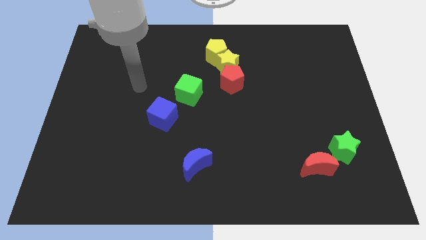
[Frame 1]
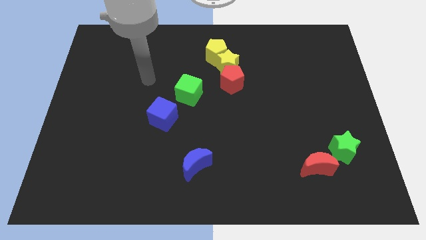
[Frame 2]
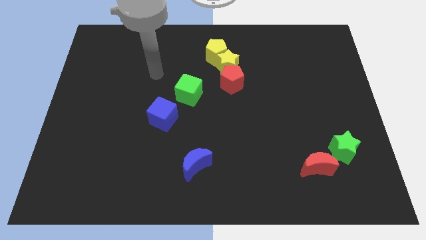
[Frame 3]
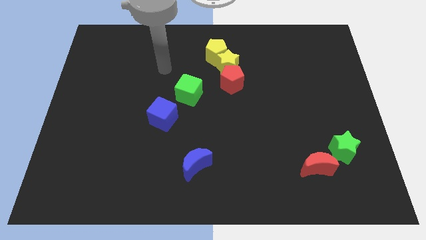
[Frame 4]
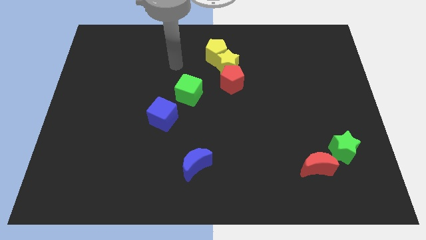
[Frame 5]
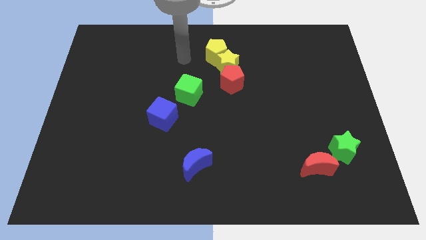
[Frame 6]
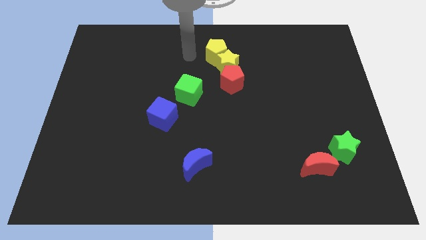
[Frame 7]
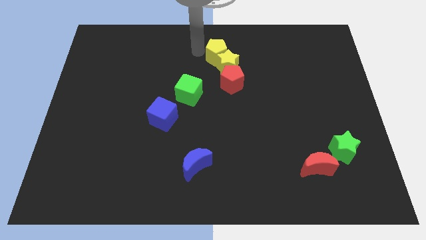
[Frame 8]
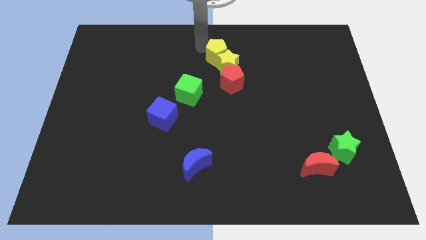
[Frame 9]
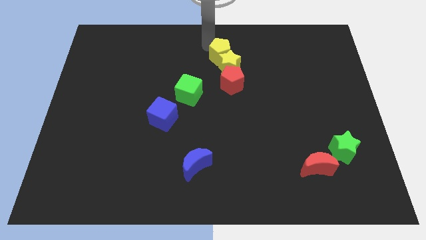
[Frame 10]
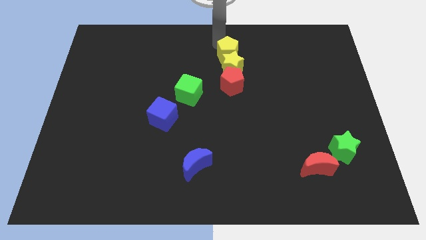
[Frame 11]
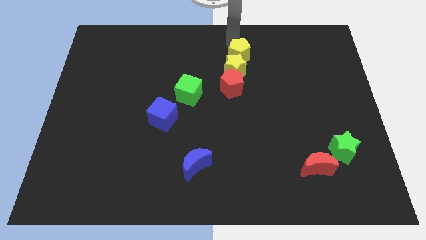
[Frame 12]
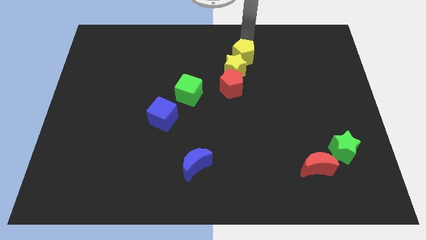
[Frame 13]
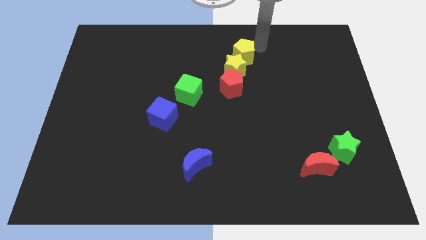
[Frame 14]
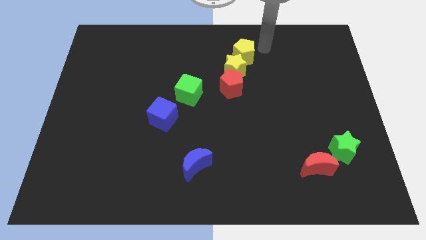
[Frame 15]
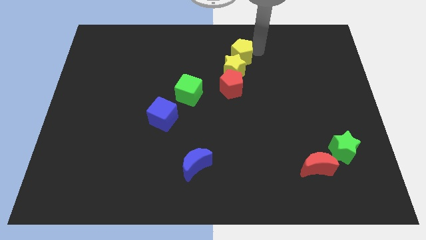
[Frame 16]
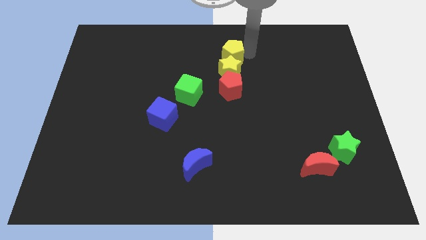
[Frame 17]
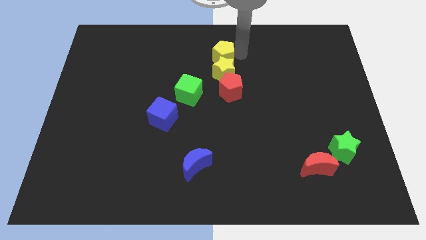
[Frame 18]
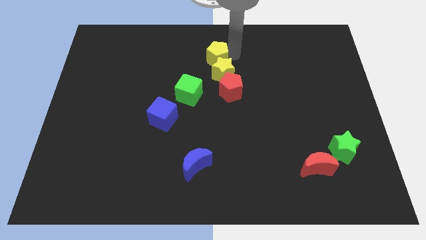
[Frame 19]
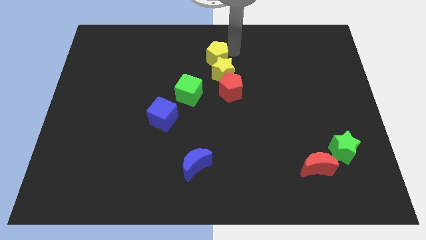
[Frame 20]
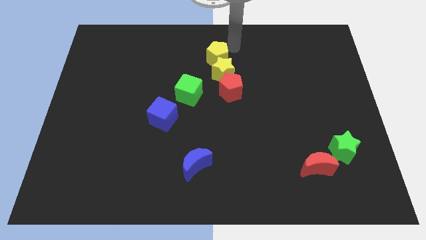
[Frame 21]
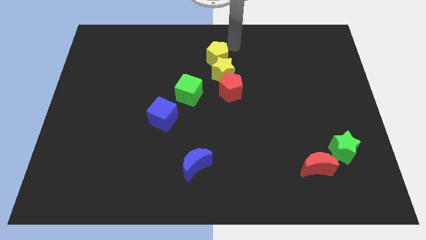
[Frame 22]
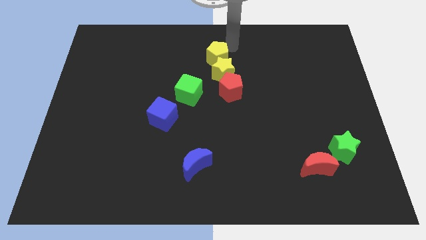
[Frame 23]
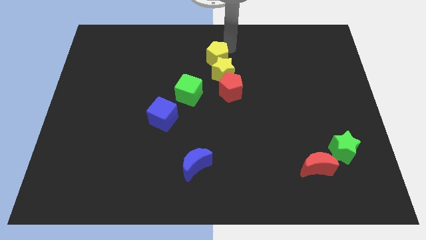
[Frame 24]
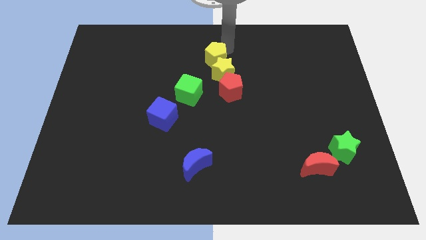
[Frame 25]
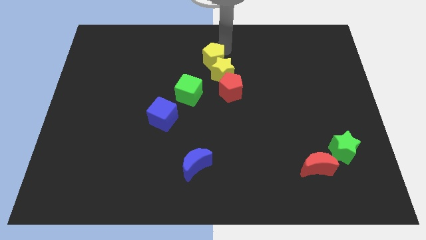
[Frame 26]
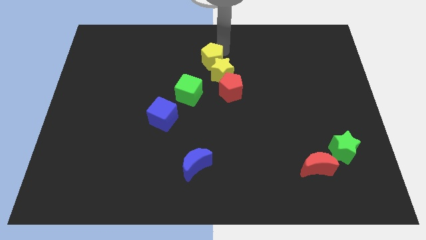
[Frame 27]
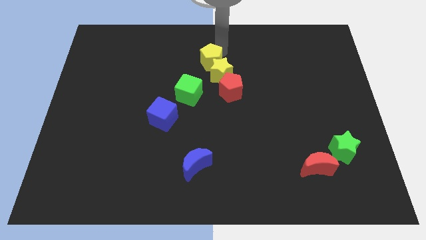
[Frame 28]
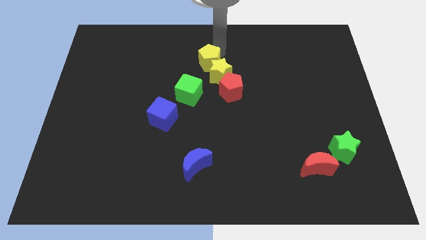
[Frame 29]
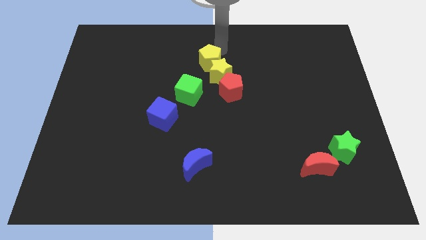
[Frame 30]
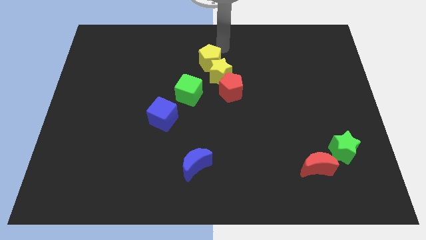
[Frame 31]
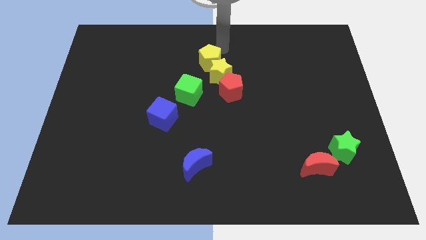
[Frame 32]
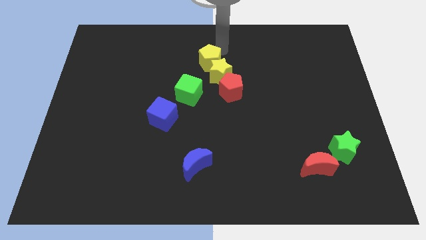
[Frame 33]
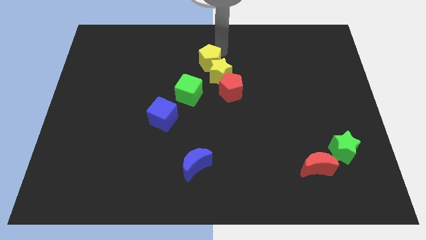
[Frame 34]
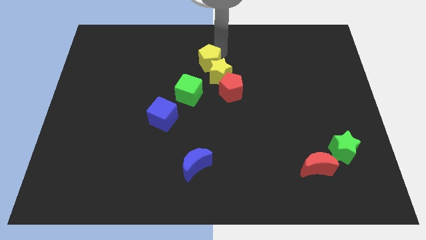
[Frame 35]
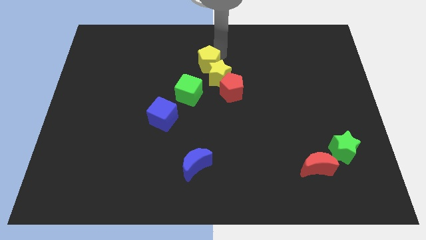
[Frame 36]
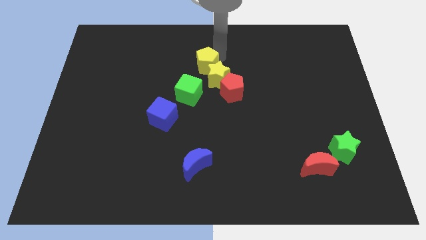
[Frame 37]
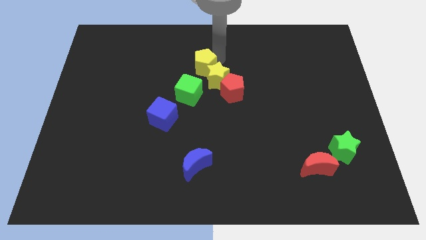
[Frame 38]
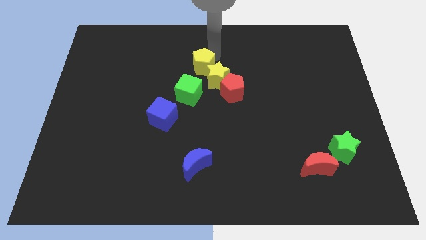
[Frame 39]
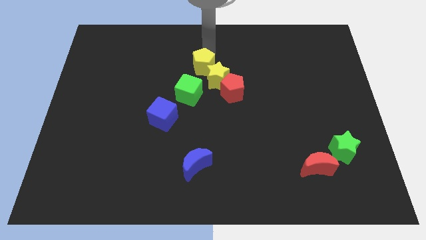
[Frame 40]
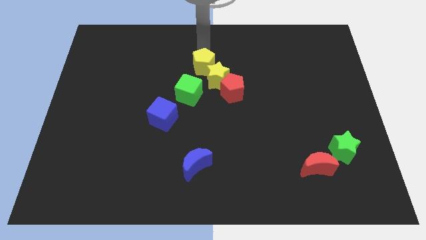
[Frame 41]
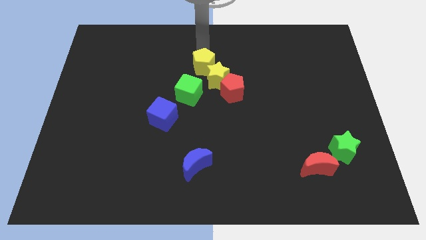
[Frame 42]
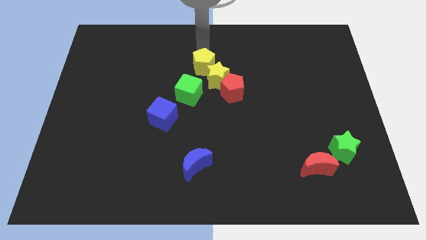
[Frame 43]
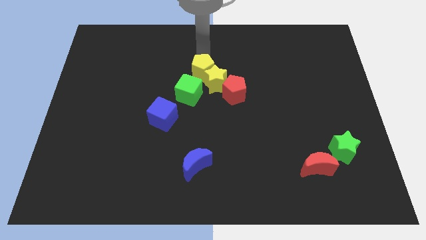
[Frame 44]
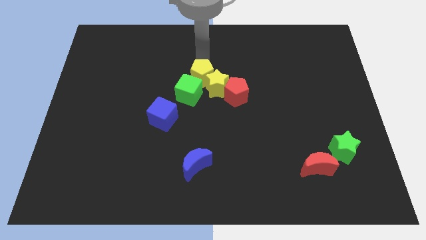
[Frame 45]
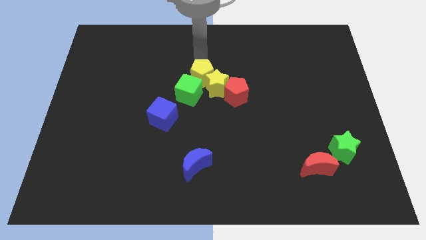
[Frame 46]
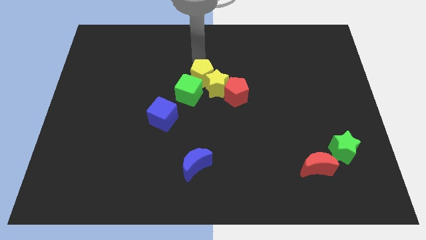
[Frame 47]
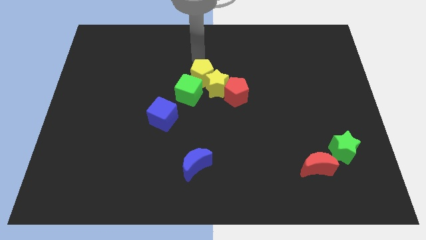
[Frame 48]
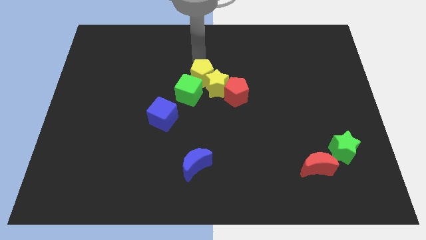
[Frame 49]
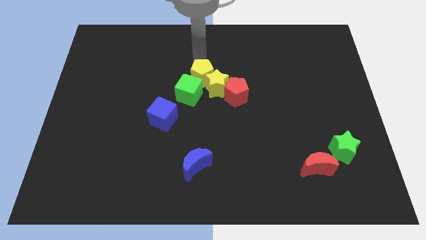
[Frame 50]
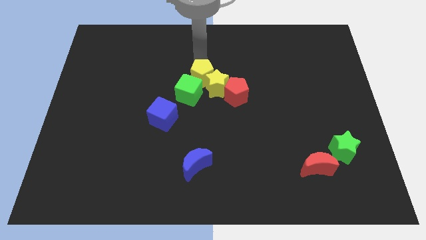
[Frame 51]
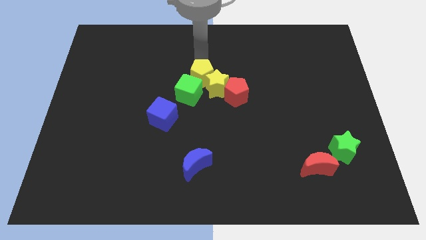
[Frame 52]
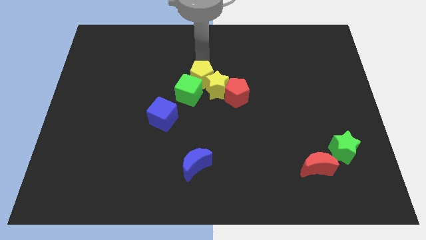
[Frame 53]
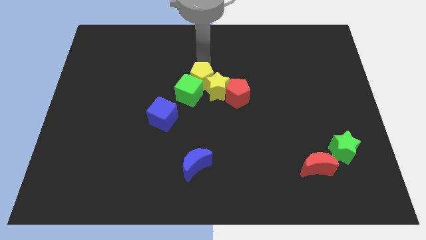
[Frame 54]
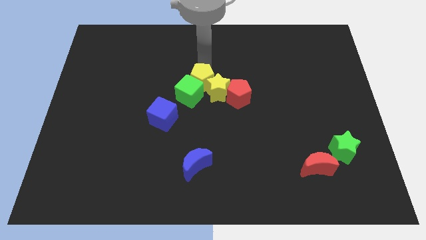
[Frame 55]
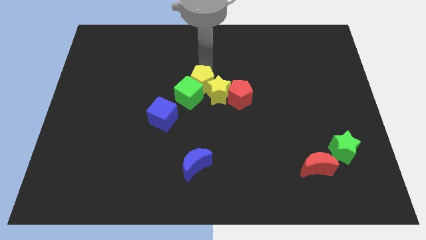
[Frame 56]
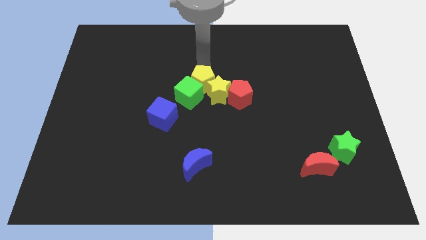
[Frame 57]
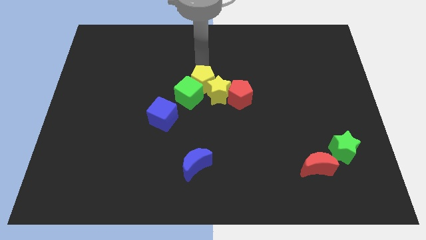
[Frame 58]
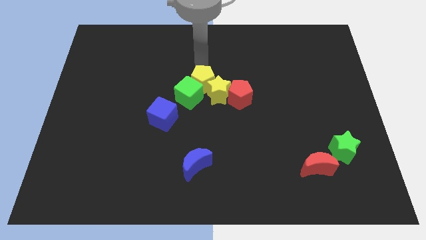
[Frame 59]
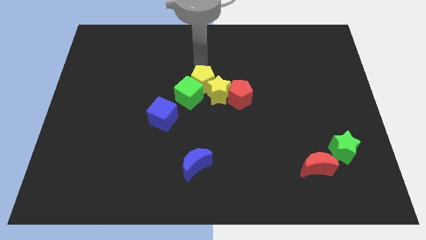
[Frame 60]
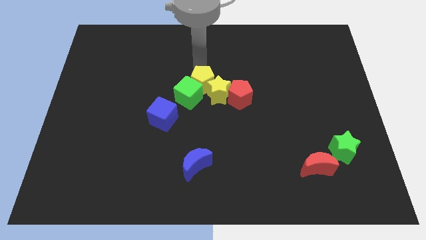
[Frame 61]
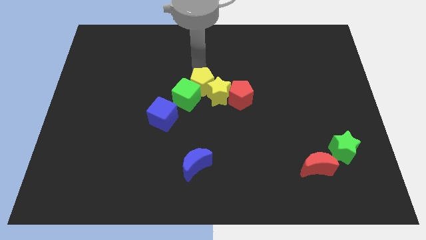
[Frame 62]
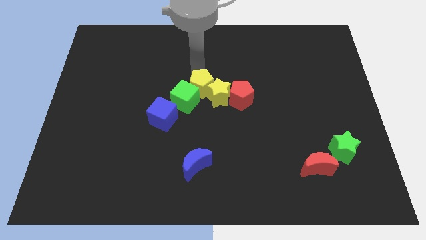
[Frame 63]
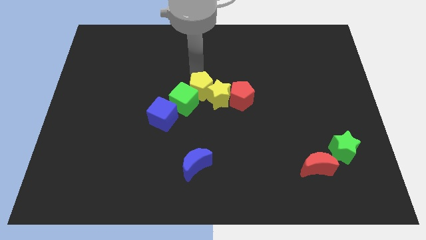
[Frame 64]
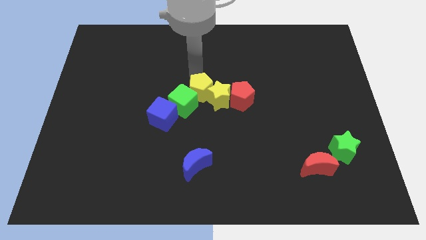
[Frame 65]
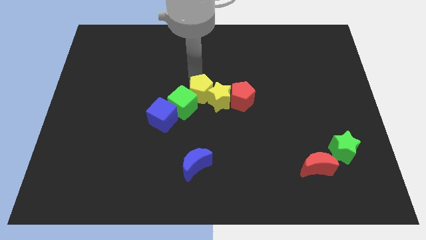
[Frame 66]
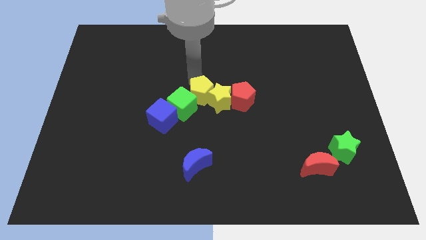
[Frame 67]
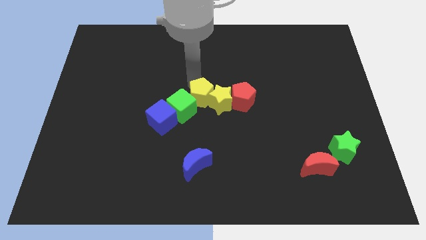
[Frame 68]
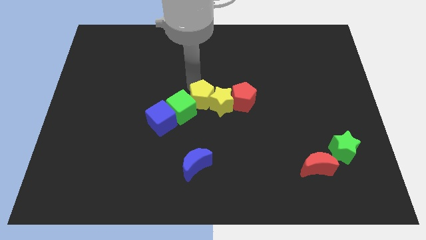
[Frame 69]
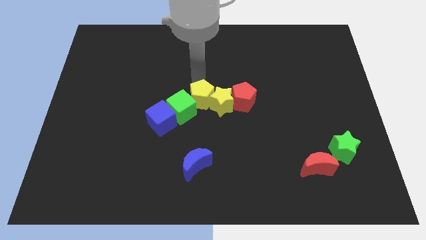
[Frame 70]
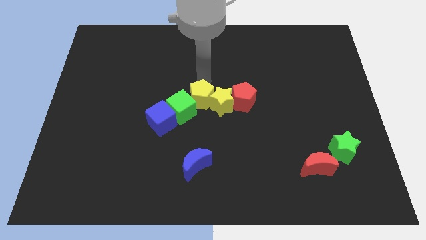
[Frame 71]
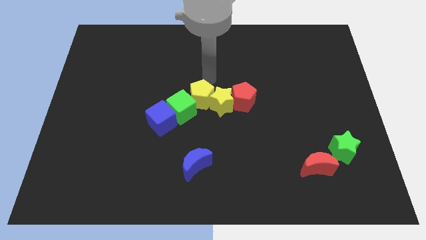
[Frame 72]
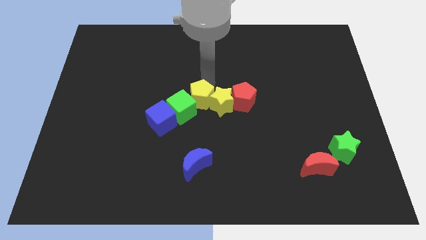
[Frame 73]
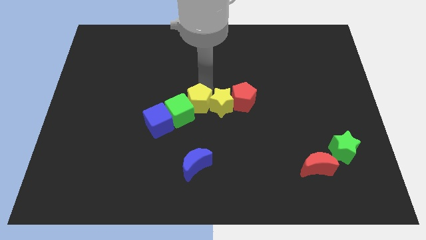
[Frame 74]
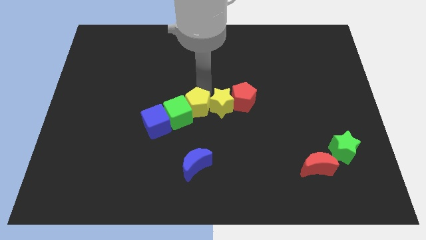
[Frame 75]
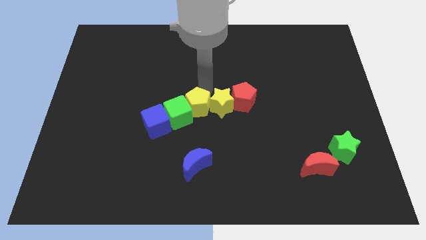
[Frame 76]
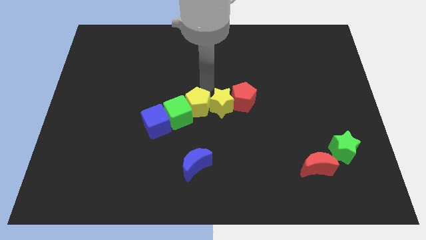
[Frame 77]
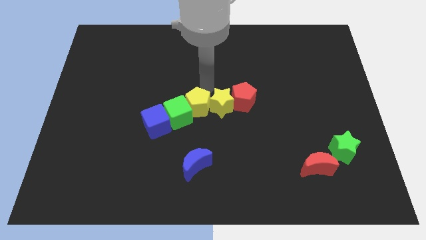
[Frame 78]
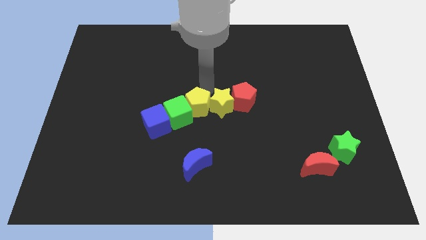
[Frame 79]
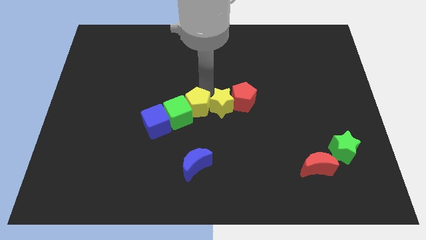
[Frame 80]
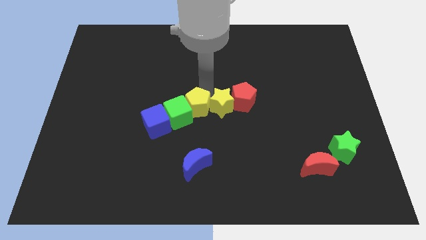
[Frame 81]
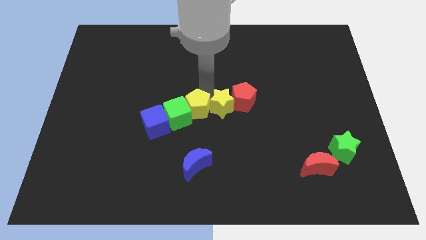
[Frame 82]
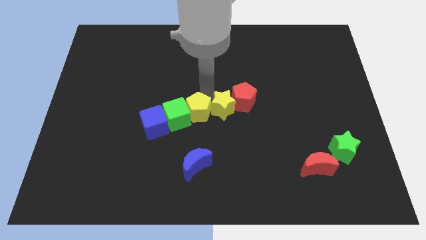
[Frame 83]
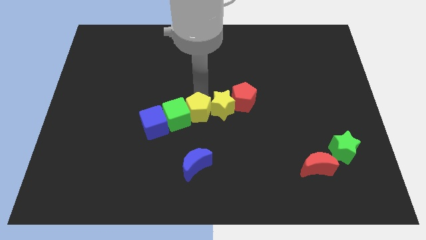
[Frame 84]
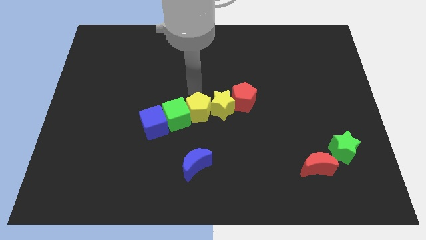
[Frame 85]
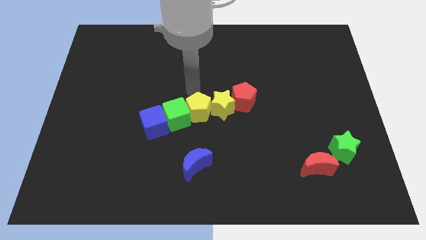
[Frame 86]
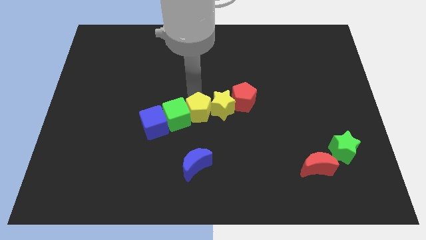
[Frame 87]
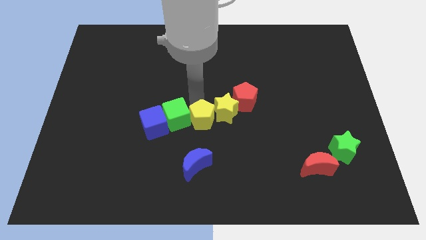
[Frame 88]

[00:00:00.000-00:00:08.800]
push the yellow pentagon downwards
